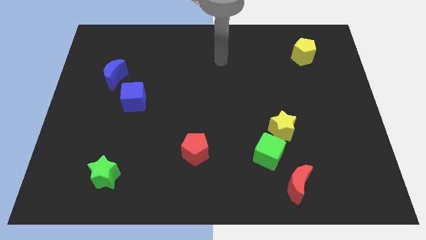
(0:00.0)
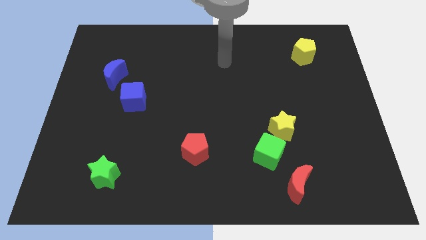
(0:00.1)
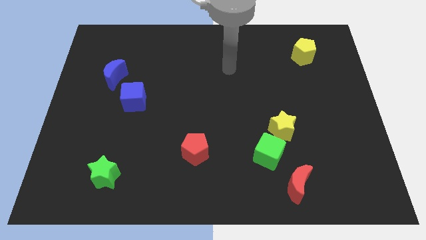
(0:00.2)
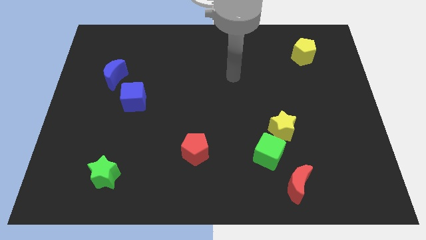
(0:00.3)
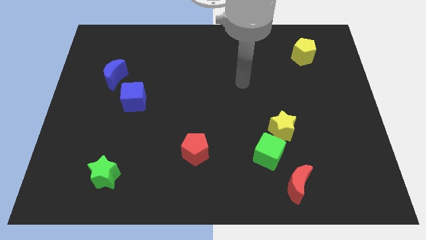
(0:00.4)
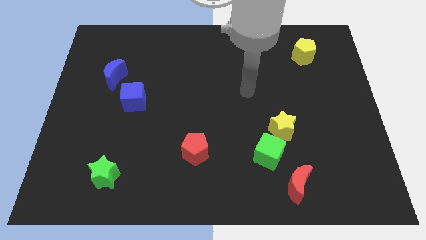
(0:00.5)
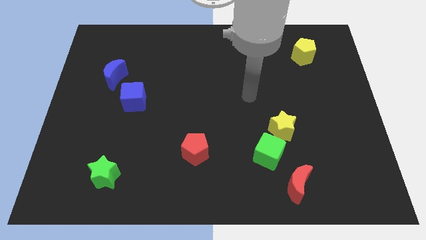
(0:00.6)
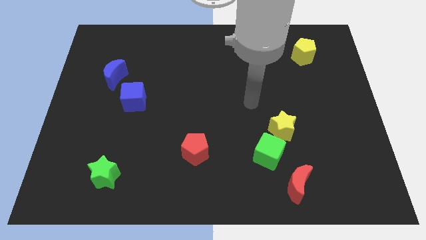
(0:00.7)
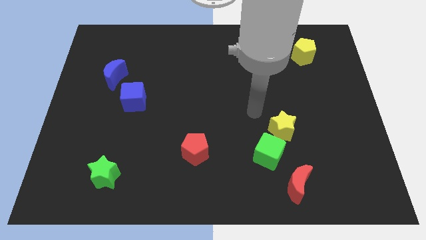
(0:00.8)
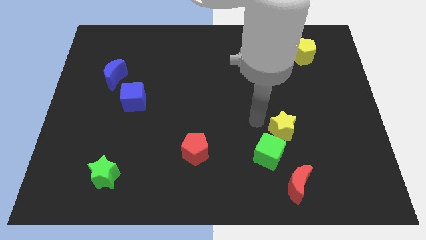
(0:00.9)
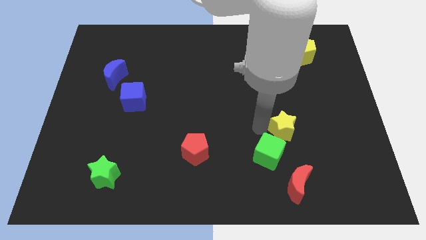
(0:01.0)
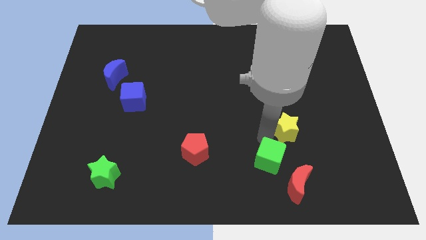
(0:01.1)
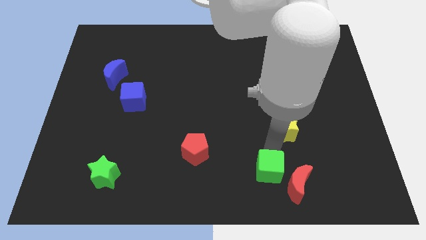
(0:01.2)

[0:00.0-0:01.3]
move the yellow star away from the green cube

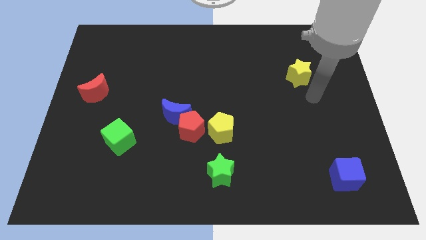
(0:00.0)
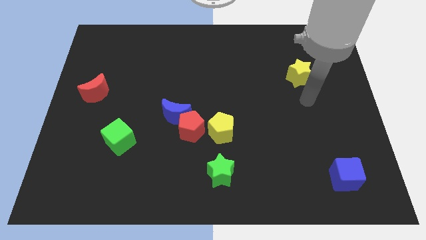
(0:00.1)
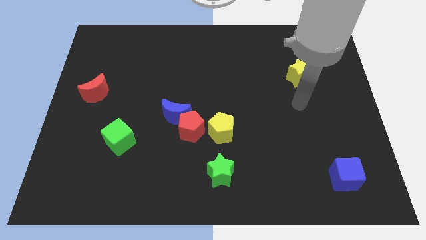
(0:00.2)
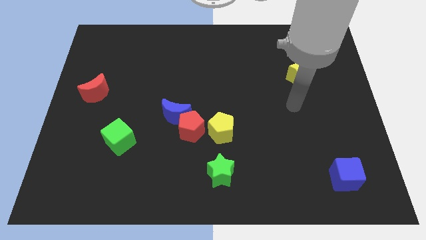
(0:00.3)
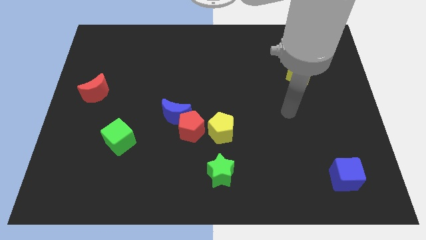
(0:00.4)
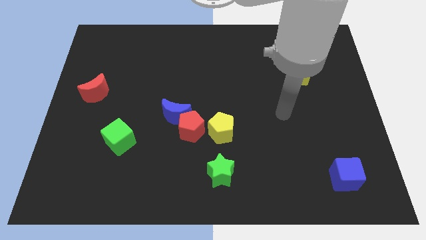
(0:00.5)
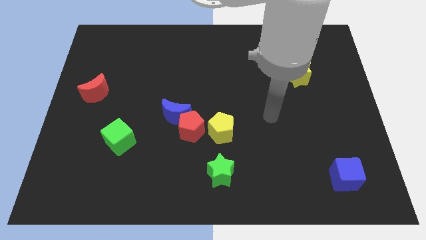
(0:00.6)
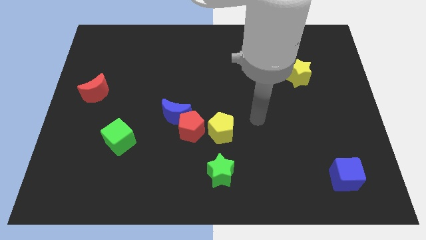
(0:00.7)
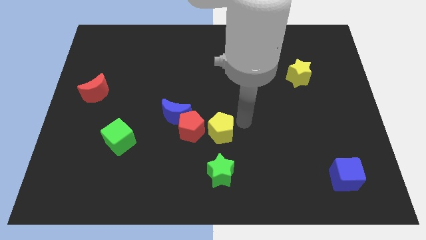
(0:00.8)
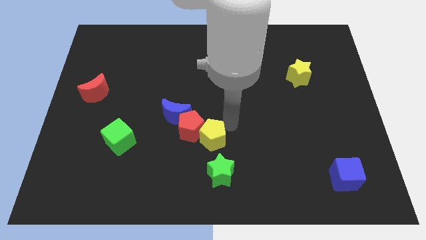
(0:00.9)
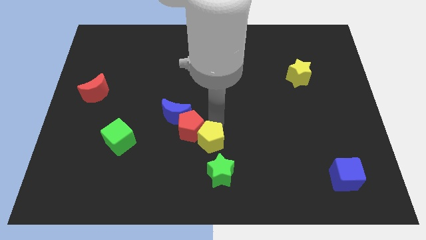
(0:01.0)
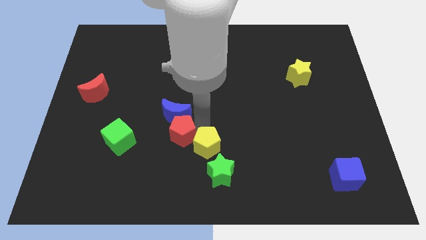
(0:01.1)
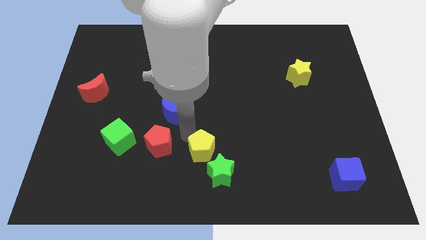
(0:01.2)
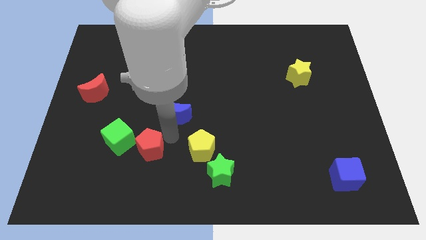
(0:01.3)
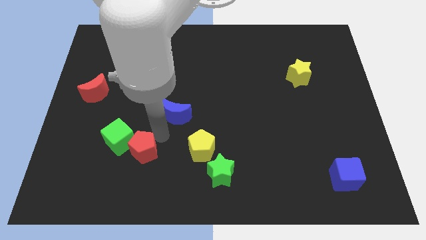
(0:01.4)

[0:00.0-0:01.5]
pull the blue moon apart from the red pentagon

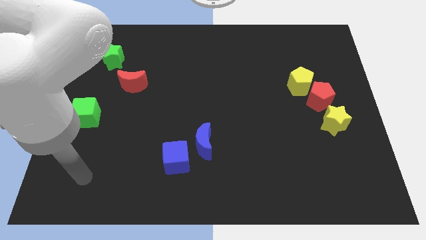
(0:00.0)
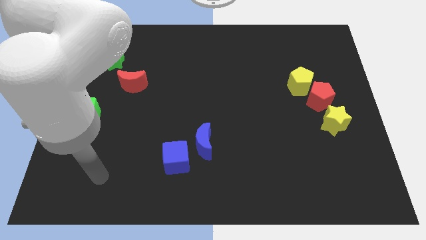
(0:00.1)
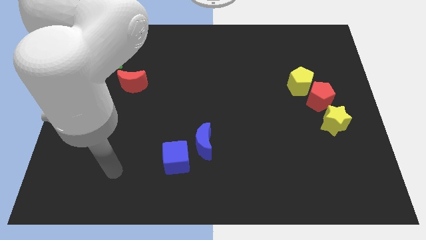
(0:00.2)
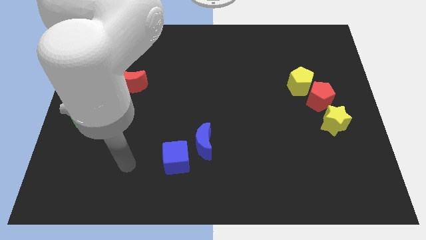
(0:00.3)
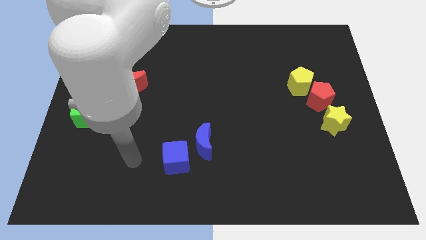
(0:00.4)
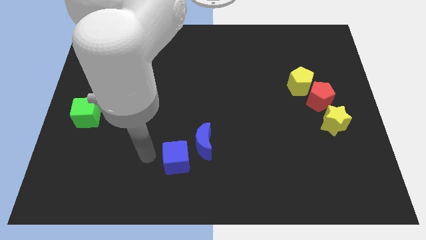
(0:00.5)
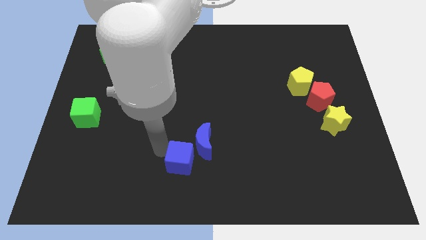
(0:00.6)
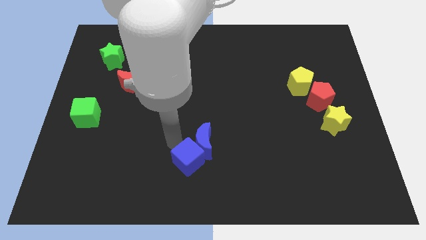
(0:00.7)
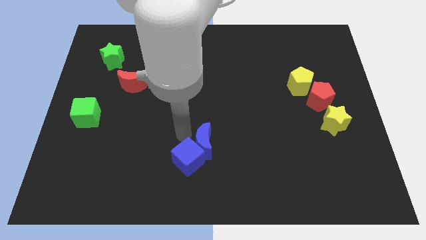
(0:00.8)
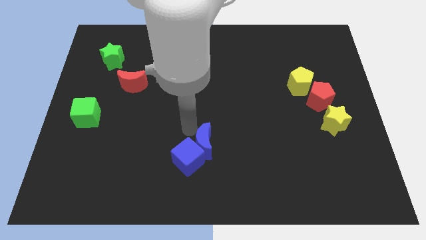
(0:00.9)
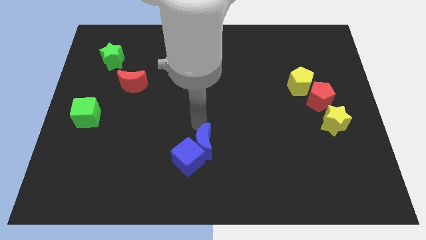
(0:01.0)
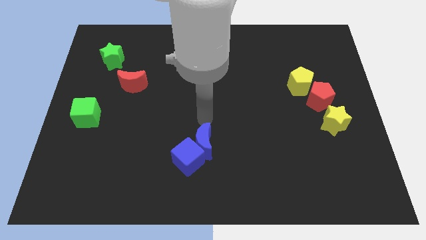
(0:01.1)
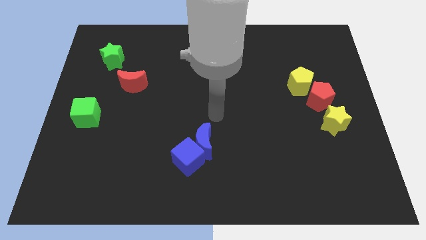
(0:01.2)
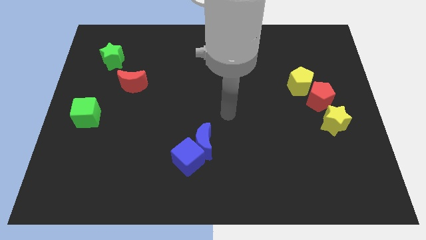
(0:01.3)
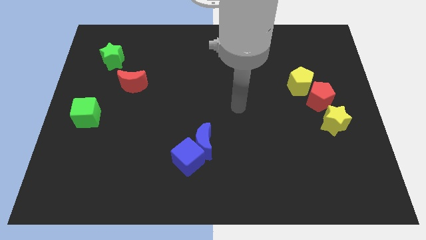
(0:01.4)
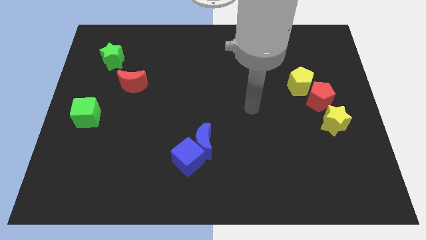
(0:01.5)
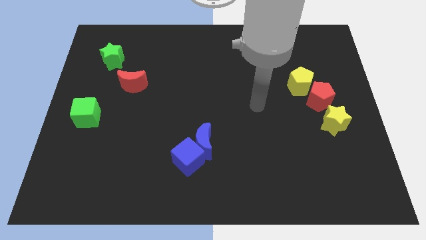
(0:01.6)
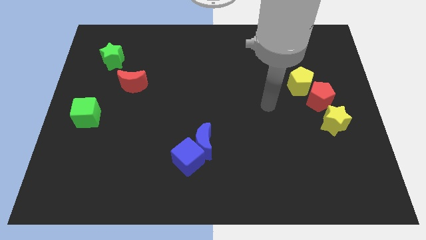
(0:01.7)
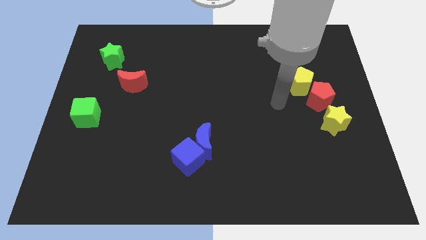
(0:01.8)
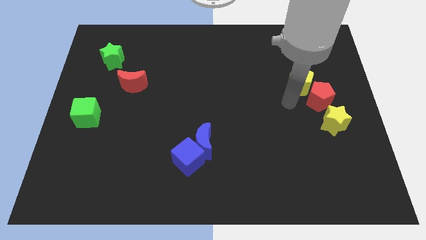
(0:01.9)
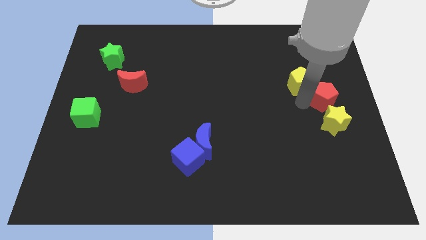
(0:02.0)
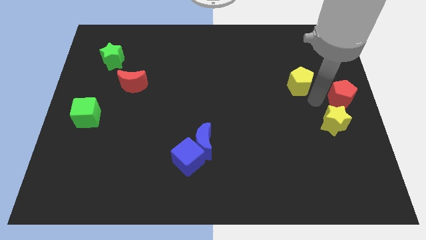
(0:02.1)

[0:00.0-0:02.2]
pull the yellow pentagon apart from the red pentagon

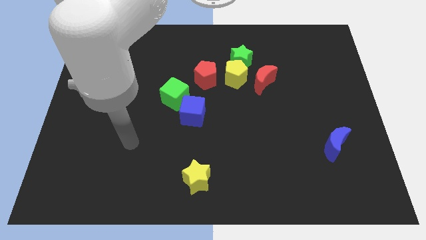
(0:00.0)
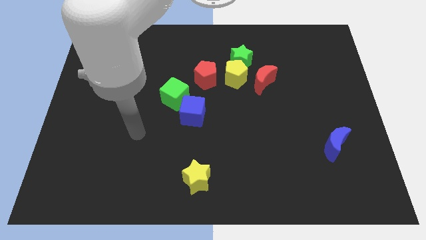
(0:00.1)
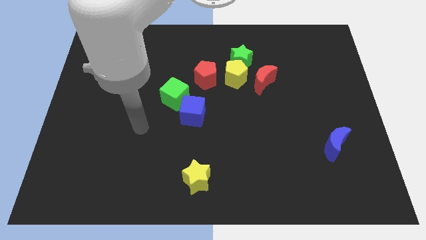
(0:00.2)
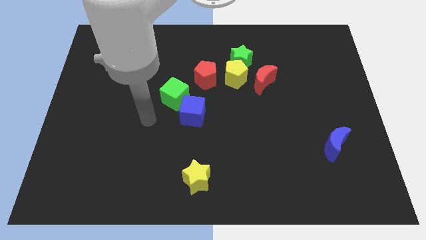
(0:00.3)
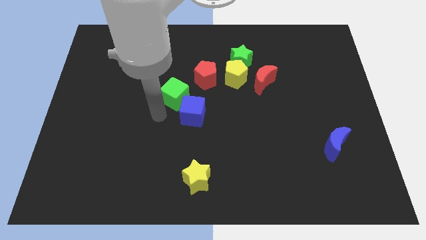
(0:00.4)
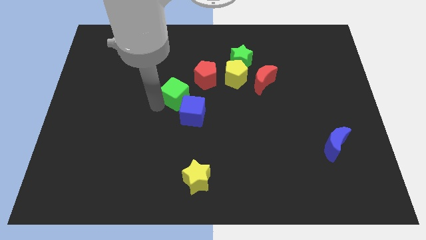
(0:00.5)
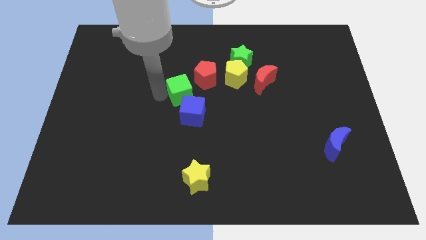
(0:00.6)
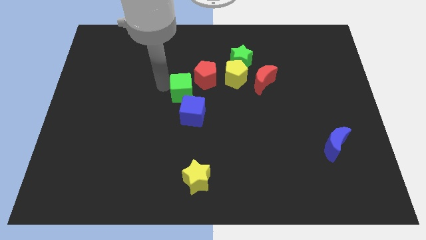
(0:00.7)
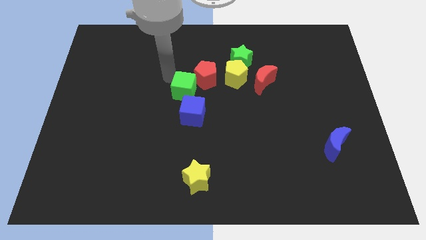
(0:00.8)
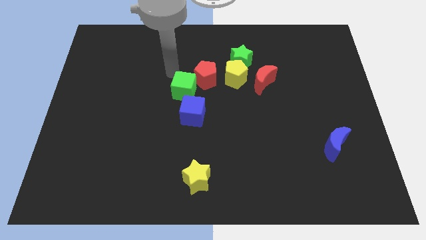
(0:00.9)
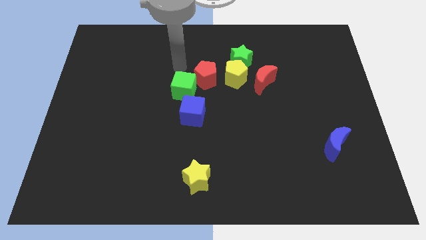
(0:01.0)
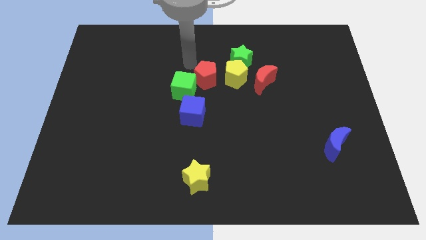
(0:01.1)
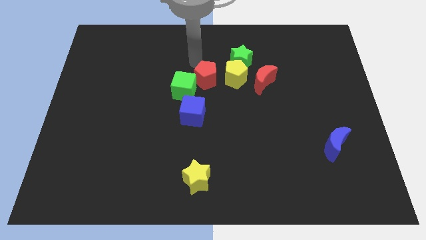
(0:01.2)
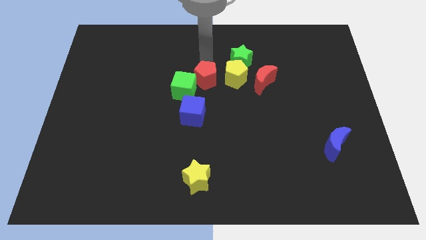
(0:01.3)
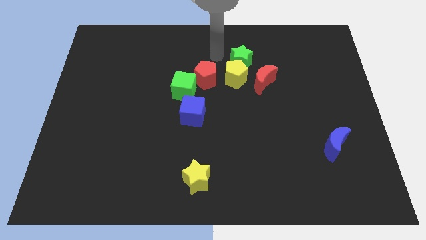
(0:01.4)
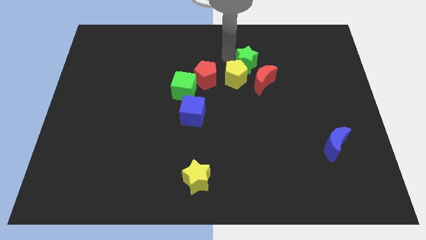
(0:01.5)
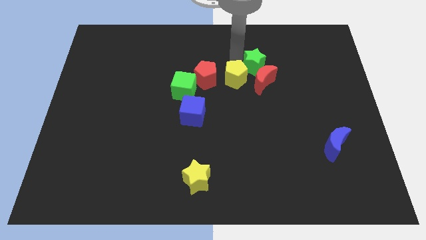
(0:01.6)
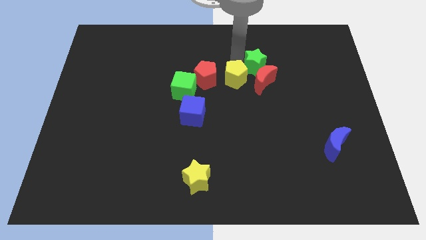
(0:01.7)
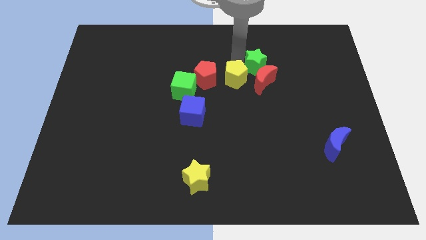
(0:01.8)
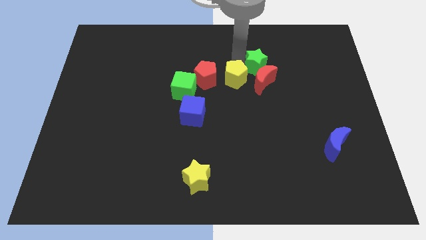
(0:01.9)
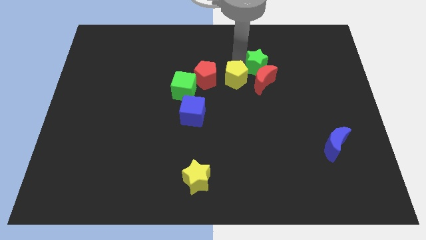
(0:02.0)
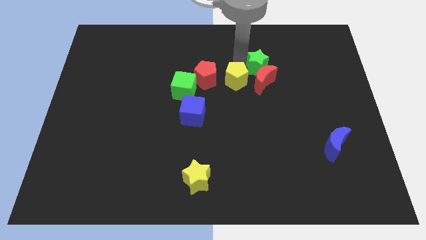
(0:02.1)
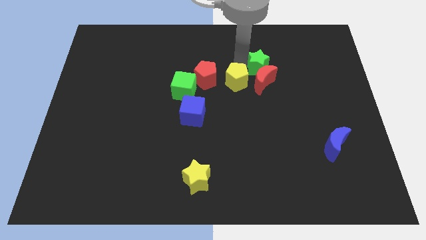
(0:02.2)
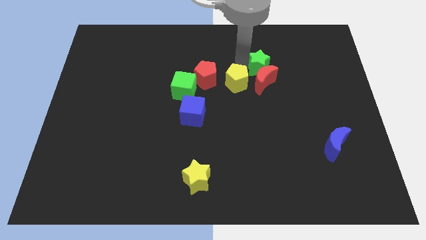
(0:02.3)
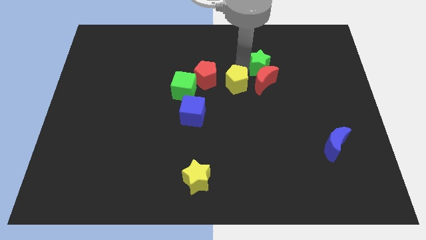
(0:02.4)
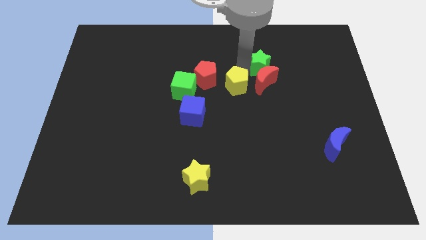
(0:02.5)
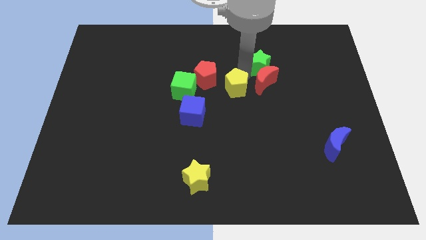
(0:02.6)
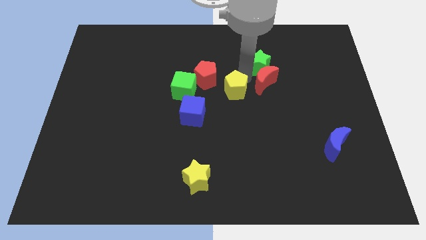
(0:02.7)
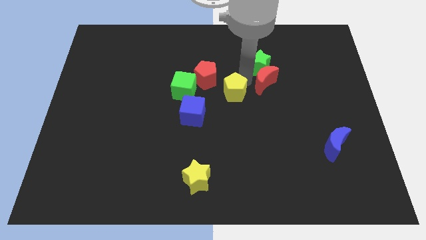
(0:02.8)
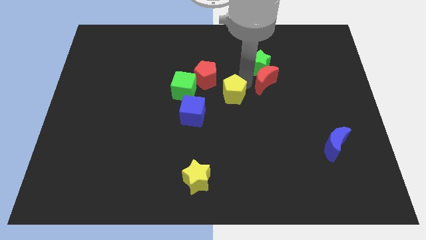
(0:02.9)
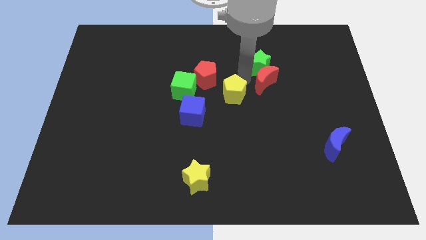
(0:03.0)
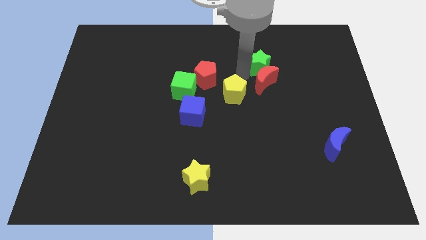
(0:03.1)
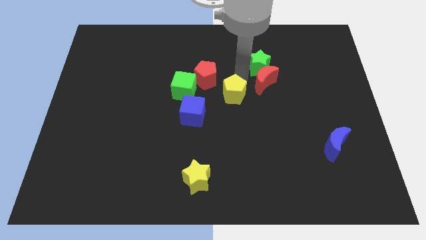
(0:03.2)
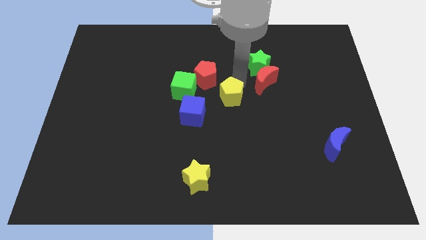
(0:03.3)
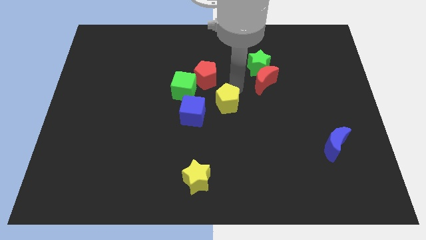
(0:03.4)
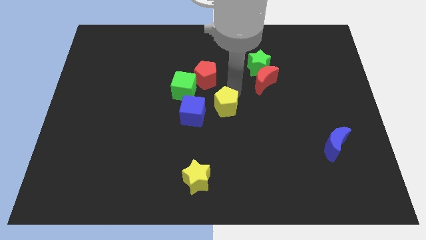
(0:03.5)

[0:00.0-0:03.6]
move the yellow pentagon away from the green star, red moon, and red pentagon

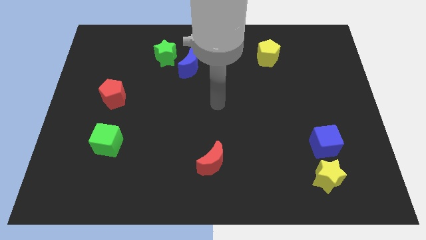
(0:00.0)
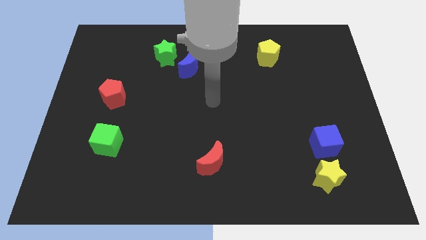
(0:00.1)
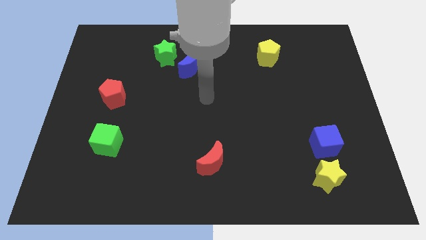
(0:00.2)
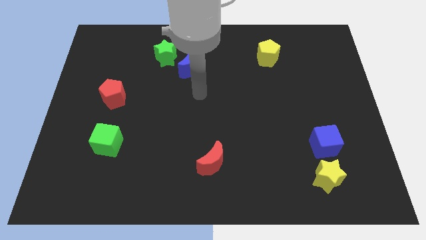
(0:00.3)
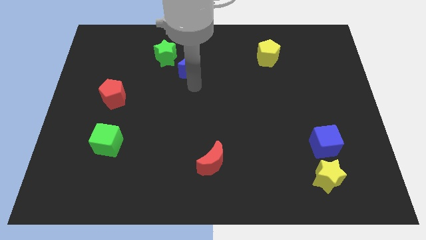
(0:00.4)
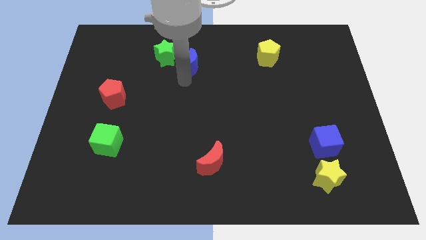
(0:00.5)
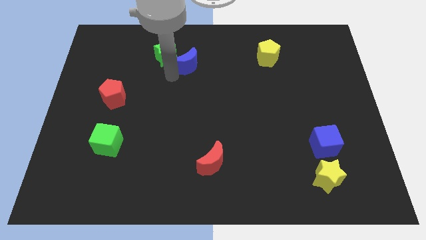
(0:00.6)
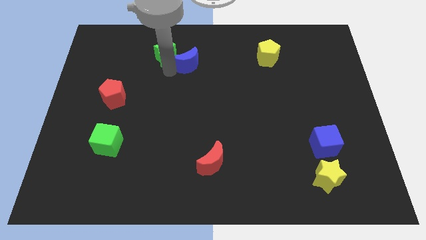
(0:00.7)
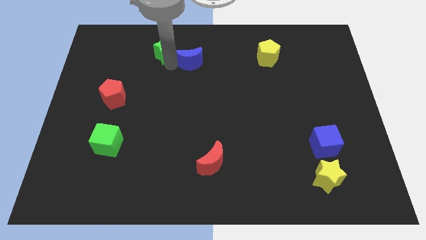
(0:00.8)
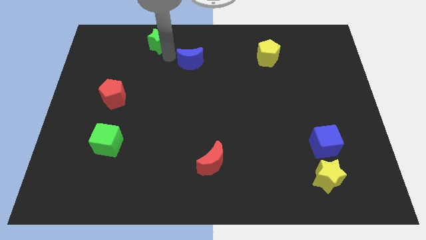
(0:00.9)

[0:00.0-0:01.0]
move the blue moon away from the green star
